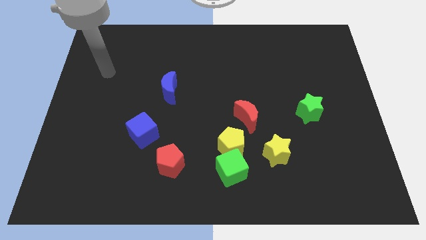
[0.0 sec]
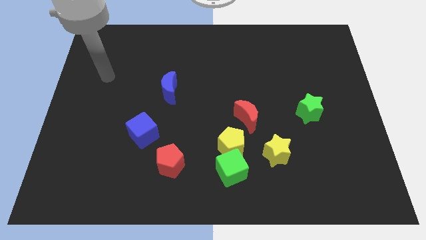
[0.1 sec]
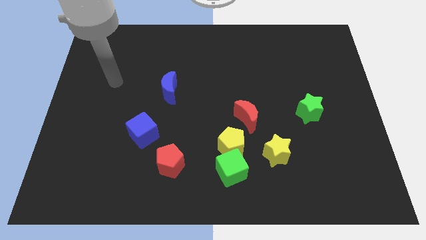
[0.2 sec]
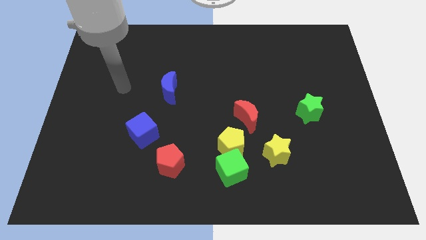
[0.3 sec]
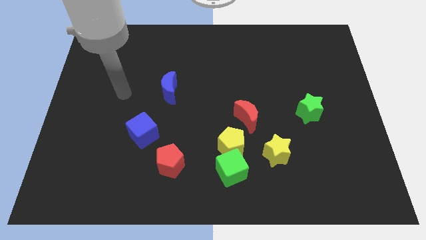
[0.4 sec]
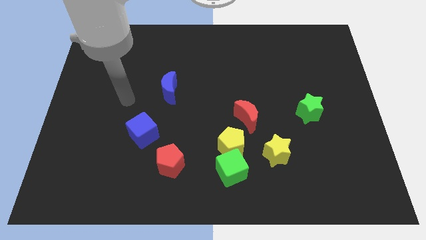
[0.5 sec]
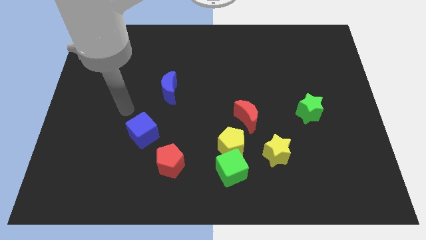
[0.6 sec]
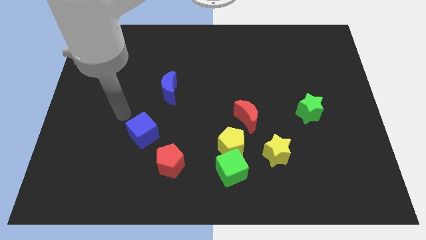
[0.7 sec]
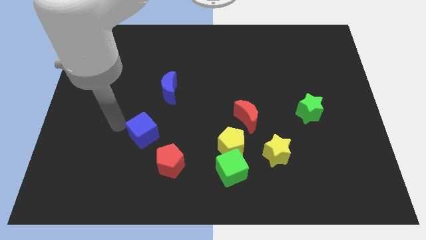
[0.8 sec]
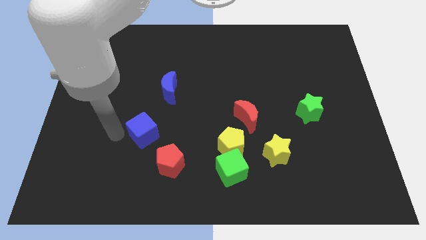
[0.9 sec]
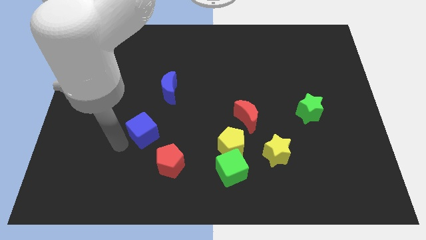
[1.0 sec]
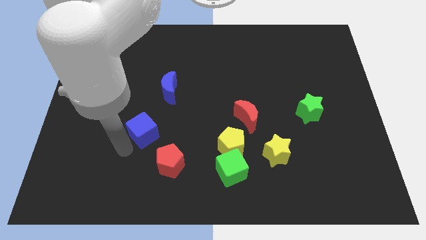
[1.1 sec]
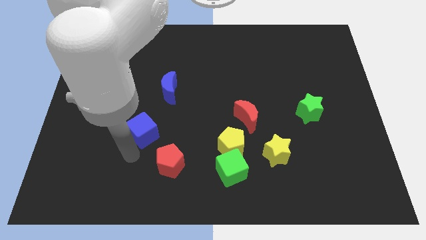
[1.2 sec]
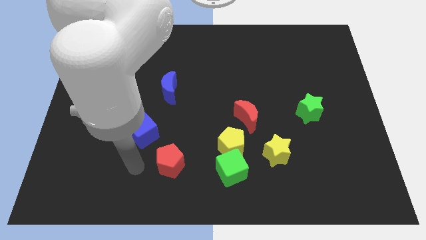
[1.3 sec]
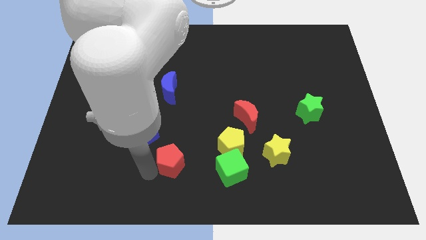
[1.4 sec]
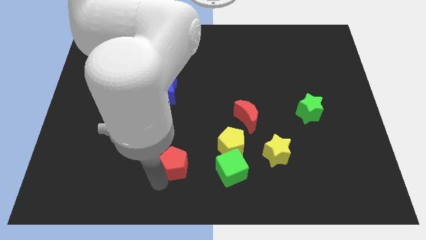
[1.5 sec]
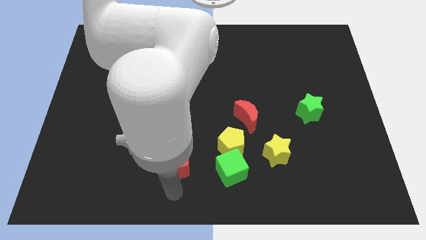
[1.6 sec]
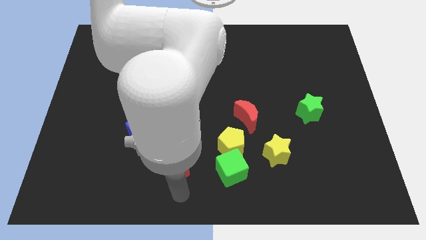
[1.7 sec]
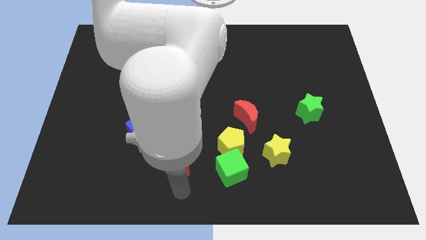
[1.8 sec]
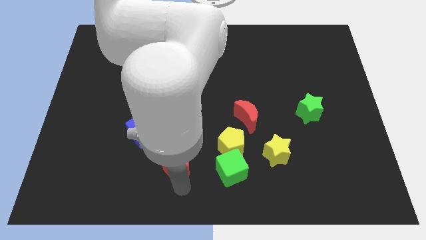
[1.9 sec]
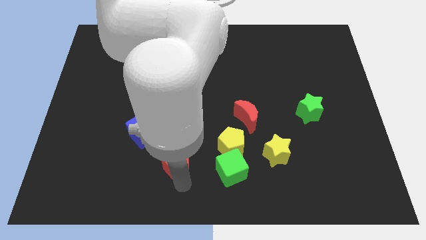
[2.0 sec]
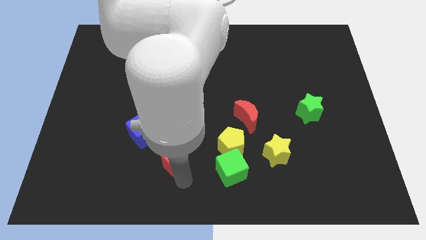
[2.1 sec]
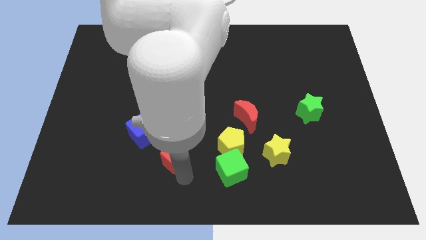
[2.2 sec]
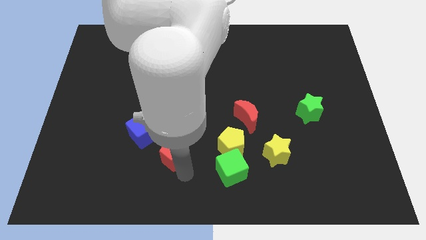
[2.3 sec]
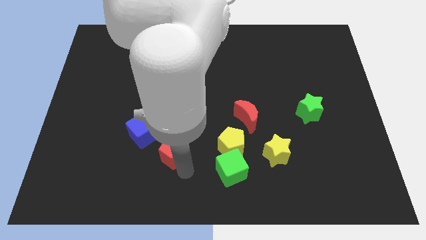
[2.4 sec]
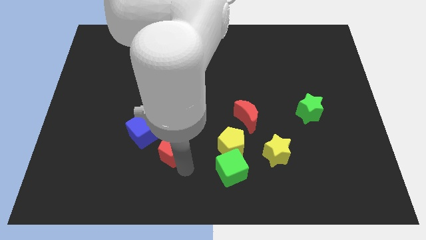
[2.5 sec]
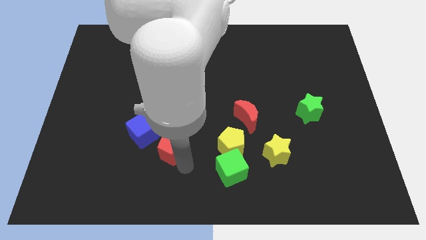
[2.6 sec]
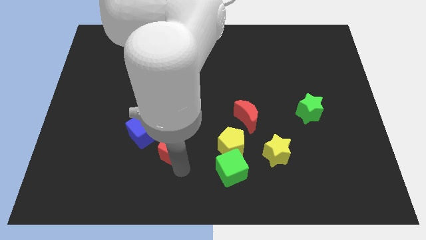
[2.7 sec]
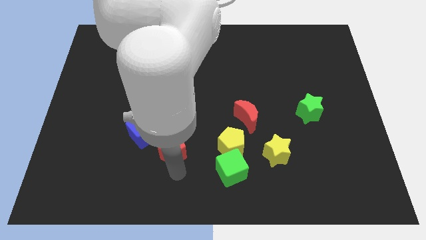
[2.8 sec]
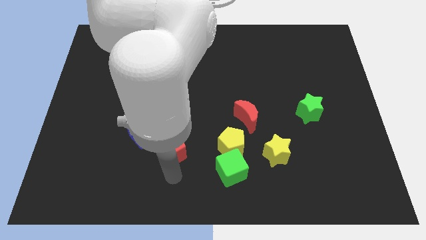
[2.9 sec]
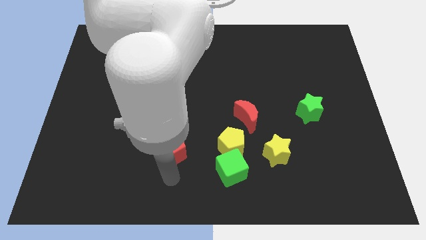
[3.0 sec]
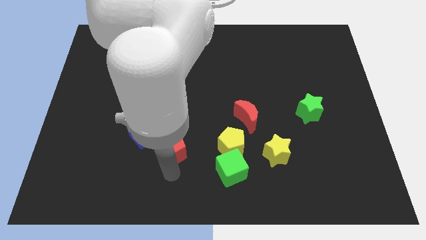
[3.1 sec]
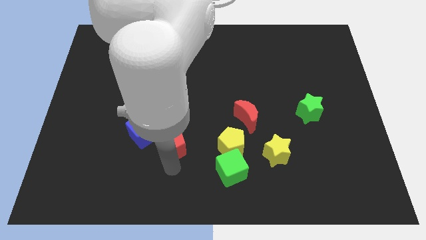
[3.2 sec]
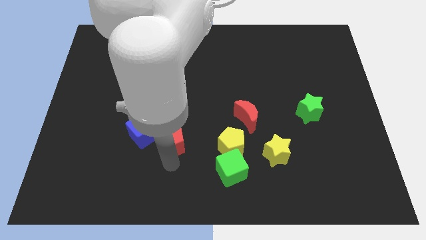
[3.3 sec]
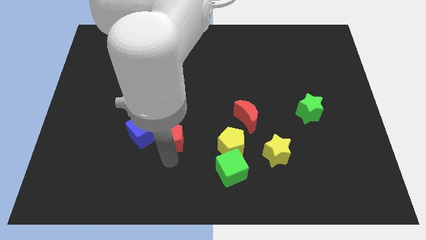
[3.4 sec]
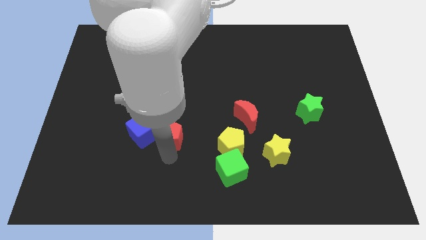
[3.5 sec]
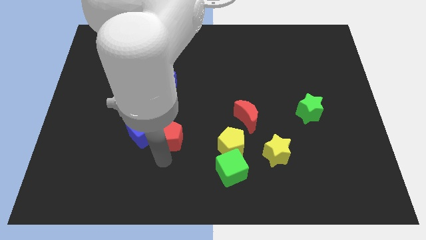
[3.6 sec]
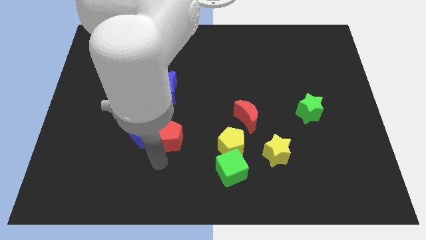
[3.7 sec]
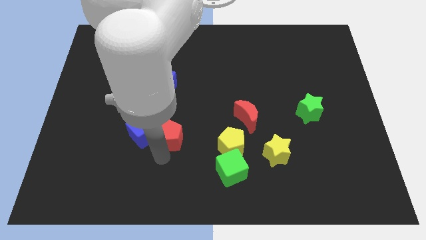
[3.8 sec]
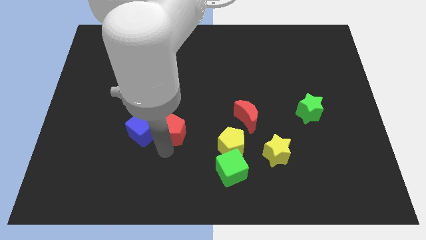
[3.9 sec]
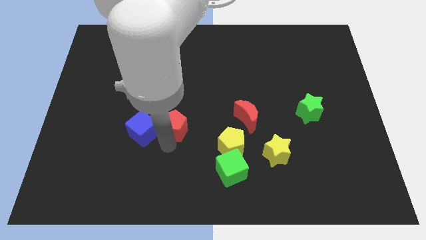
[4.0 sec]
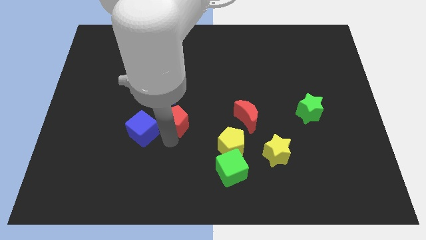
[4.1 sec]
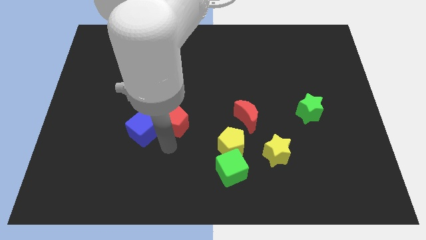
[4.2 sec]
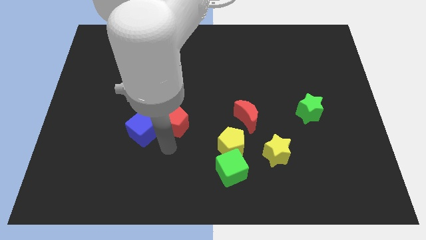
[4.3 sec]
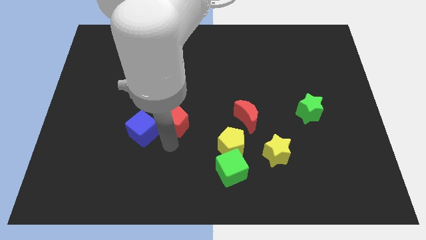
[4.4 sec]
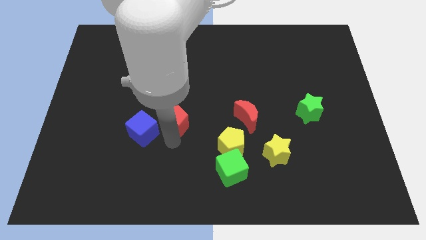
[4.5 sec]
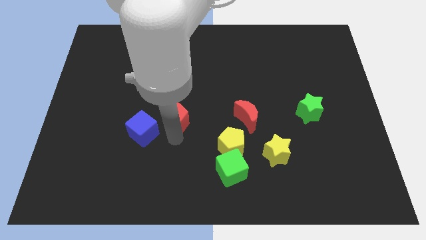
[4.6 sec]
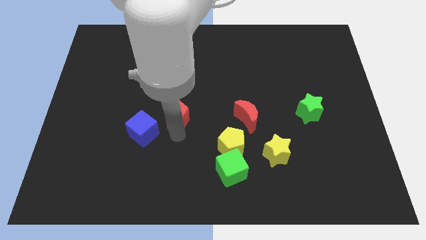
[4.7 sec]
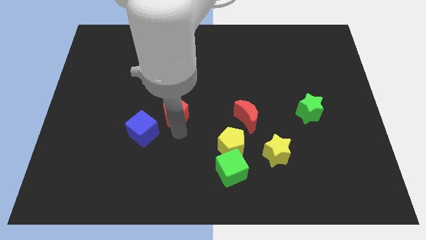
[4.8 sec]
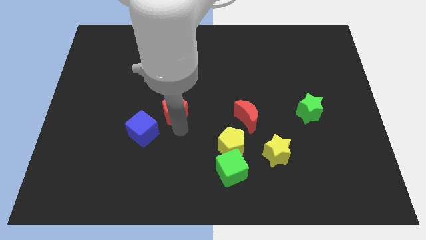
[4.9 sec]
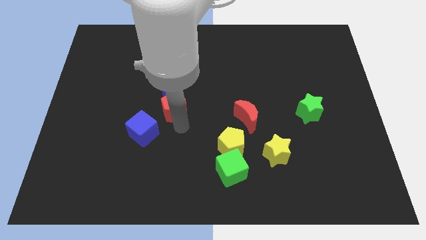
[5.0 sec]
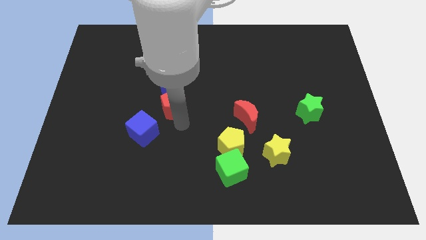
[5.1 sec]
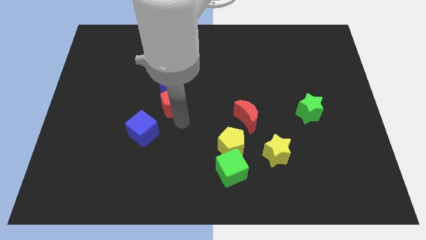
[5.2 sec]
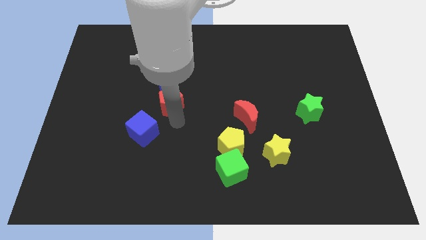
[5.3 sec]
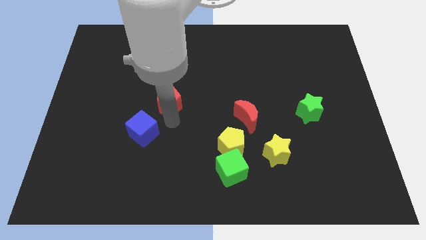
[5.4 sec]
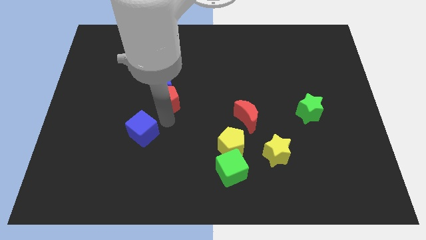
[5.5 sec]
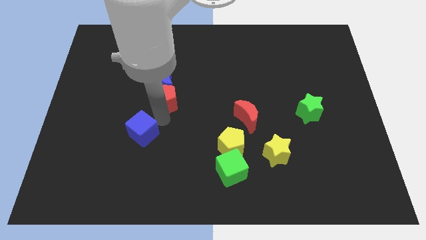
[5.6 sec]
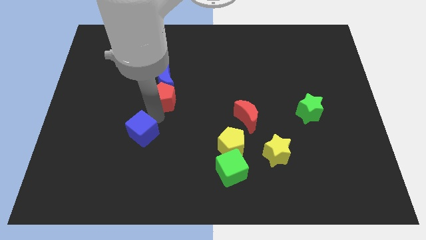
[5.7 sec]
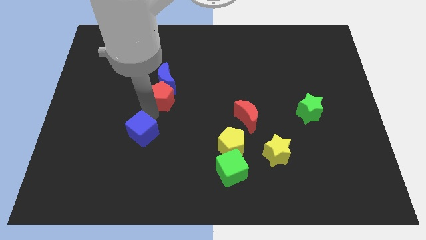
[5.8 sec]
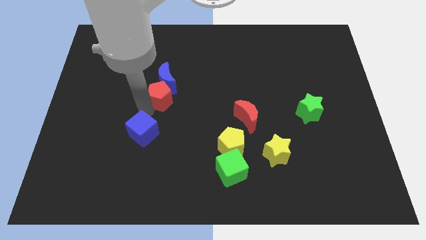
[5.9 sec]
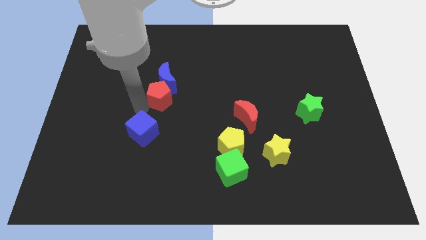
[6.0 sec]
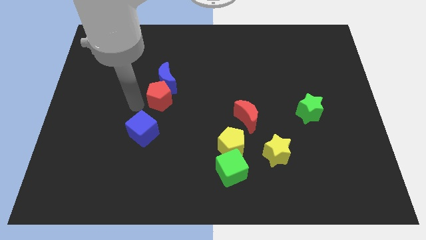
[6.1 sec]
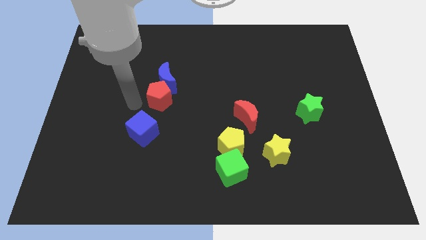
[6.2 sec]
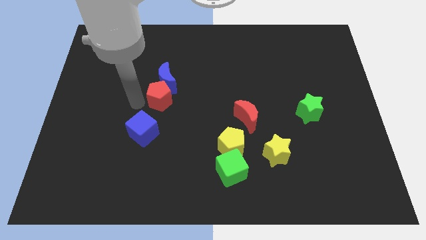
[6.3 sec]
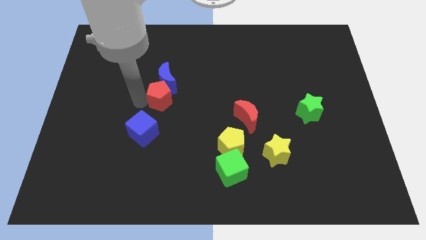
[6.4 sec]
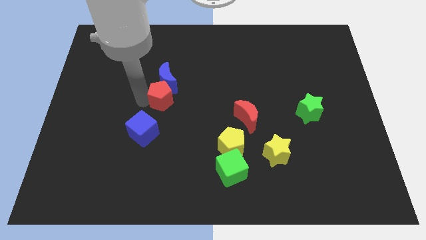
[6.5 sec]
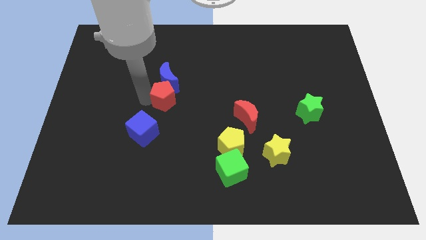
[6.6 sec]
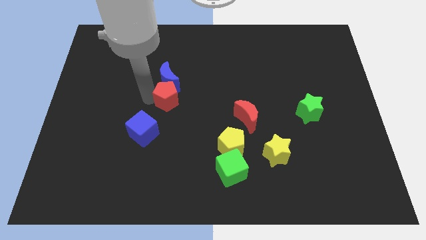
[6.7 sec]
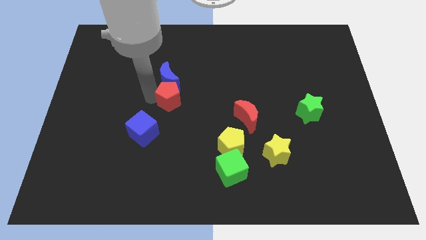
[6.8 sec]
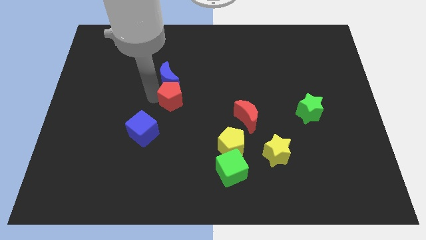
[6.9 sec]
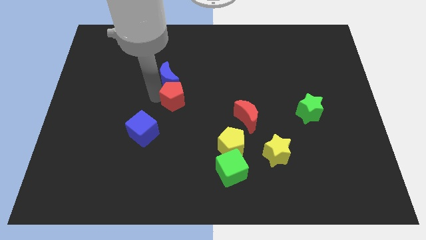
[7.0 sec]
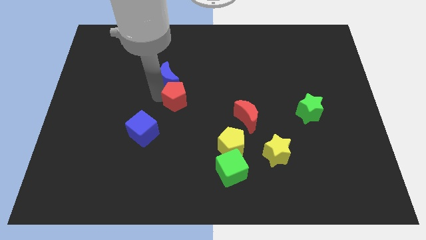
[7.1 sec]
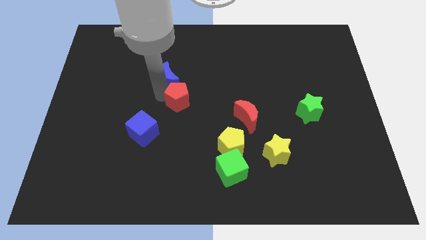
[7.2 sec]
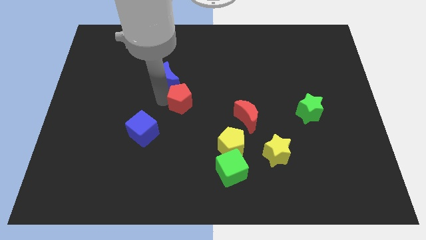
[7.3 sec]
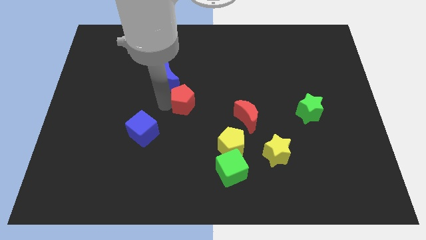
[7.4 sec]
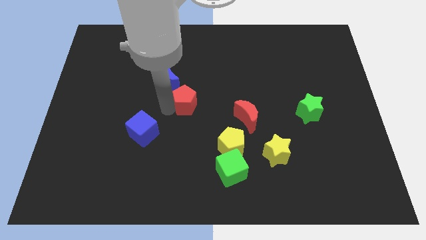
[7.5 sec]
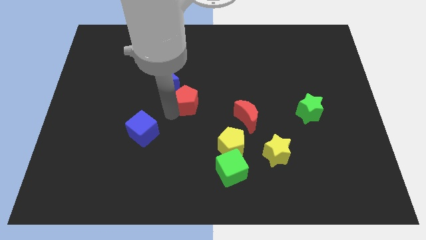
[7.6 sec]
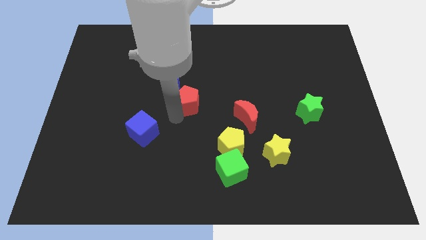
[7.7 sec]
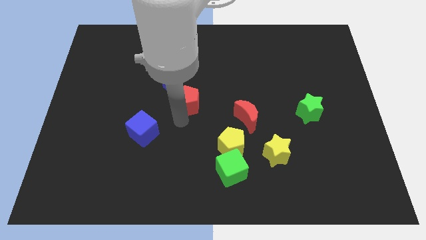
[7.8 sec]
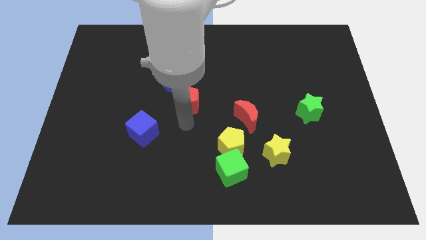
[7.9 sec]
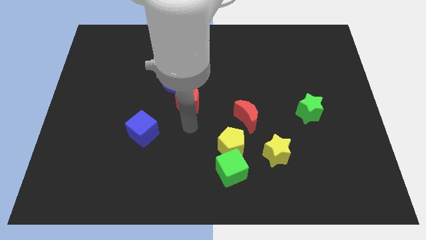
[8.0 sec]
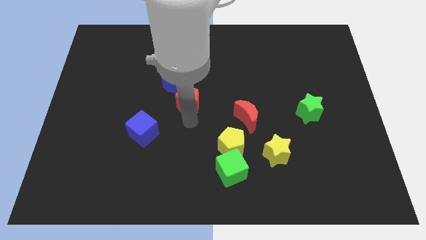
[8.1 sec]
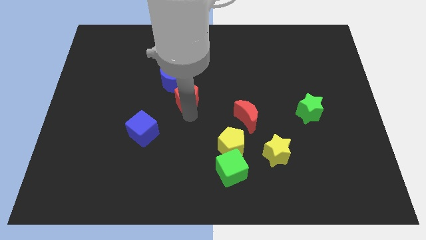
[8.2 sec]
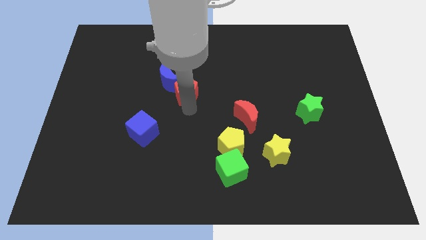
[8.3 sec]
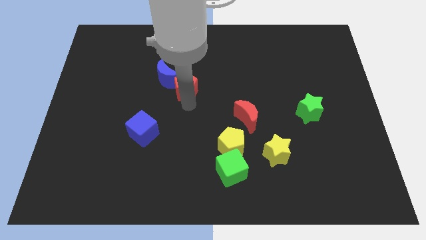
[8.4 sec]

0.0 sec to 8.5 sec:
move the red pentagon up
